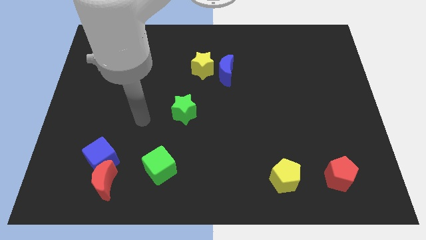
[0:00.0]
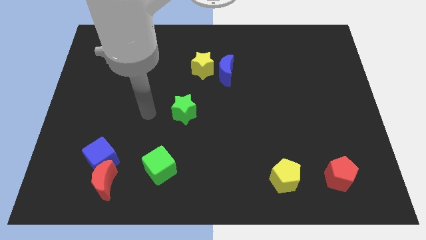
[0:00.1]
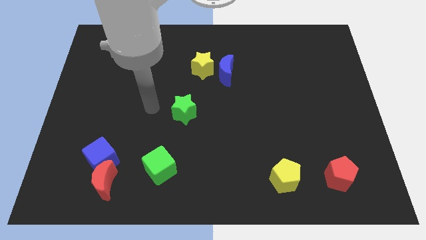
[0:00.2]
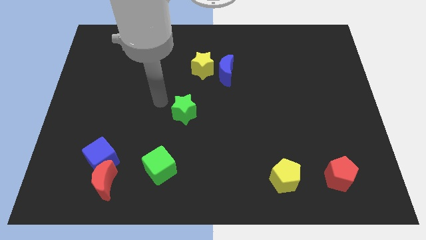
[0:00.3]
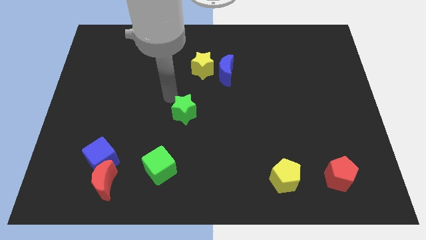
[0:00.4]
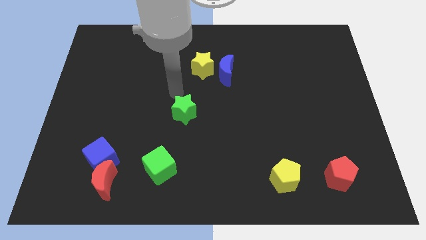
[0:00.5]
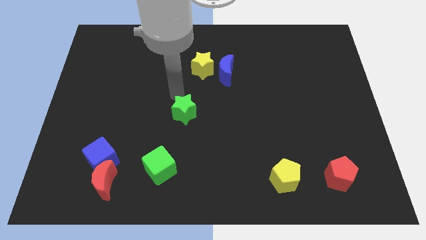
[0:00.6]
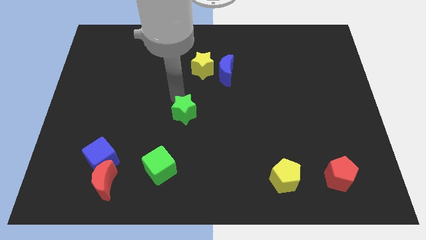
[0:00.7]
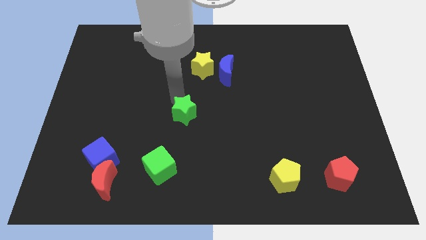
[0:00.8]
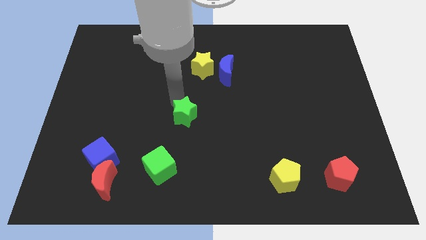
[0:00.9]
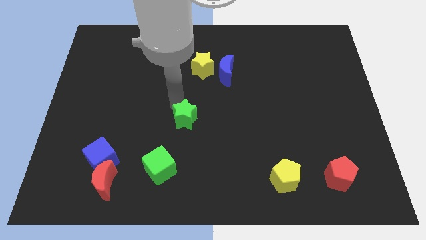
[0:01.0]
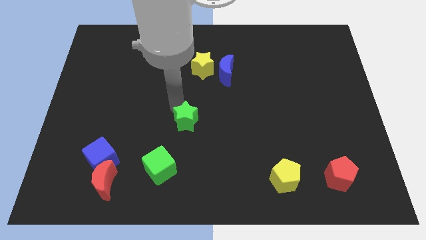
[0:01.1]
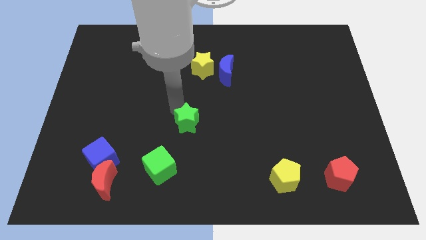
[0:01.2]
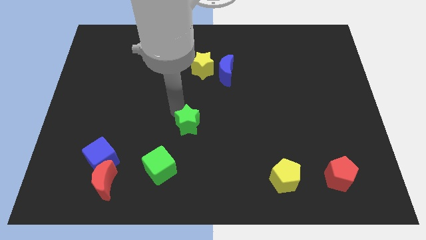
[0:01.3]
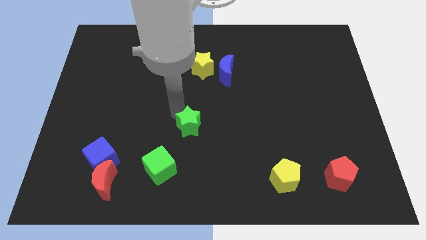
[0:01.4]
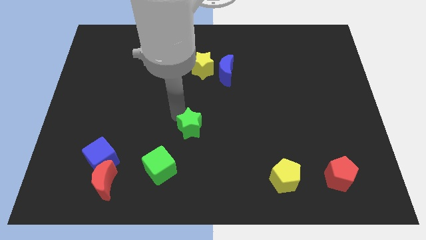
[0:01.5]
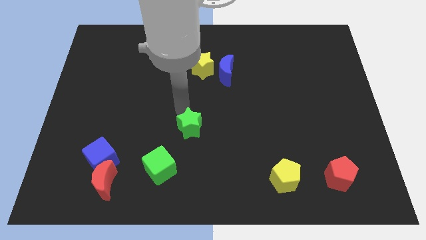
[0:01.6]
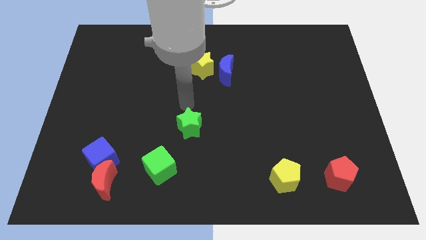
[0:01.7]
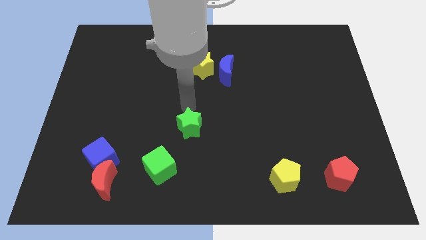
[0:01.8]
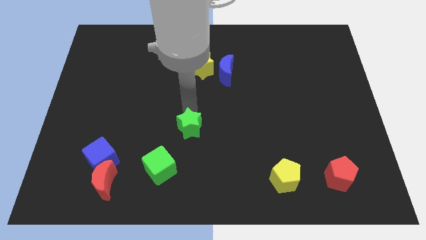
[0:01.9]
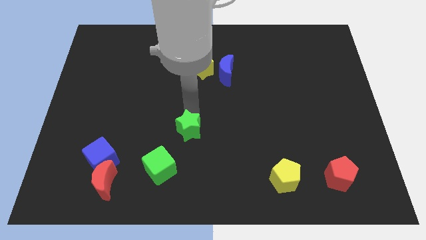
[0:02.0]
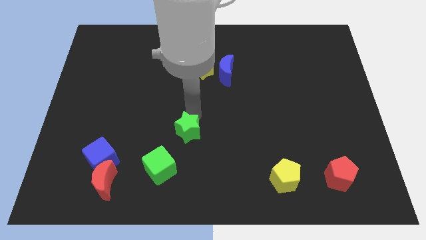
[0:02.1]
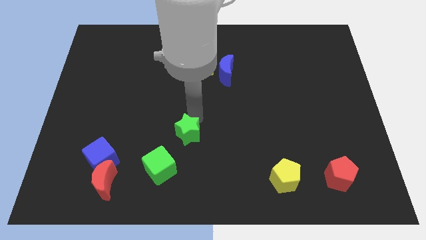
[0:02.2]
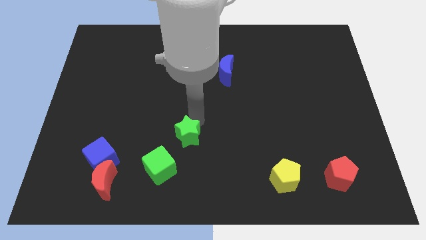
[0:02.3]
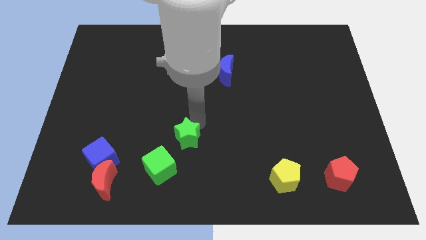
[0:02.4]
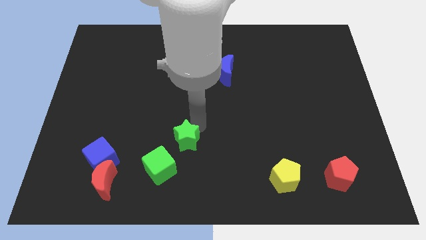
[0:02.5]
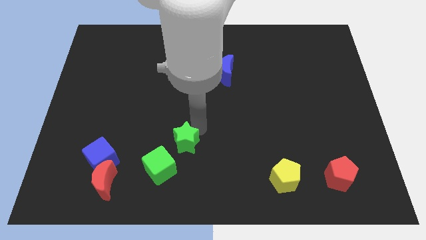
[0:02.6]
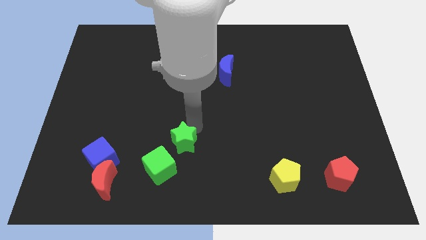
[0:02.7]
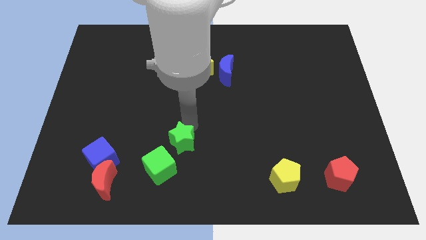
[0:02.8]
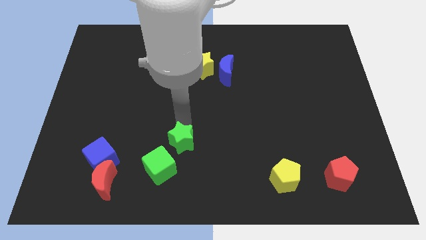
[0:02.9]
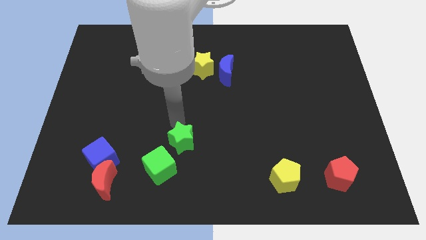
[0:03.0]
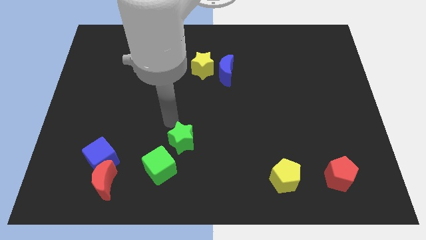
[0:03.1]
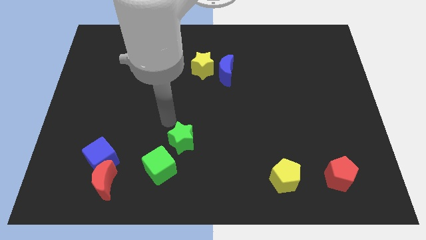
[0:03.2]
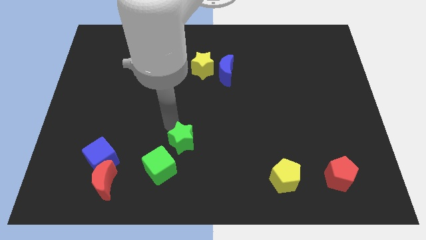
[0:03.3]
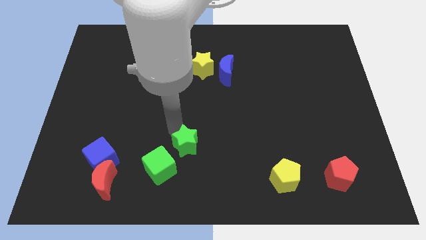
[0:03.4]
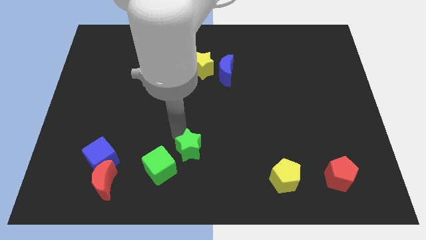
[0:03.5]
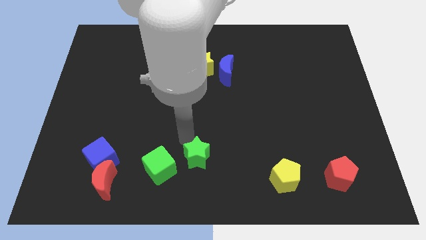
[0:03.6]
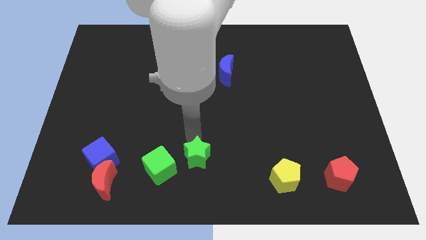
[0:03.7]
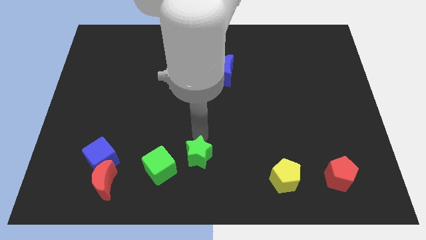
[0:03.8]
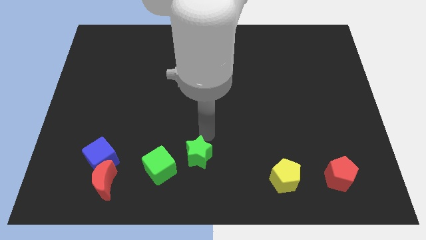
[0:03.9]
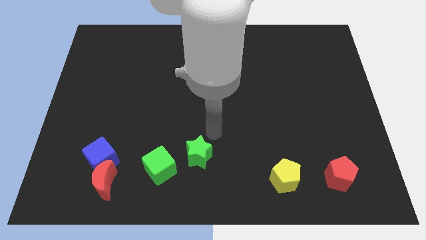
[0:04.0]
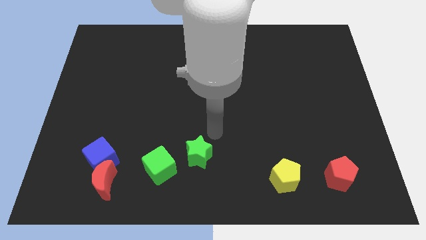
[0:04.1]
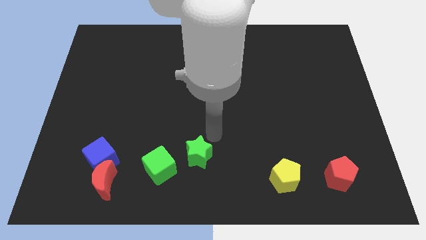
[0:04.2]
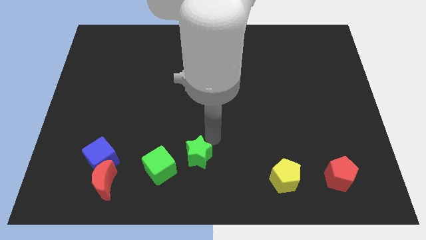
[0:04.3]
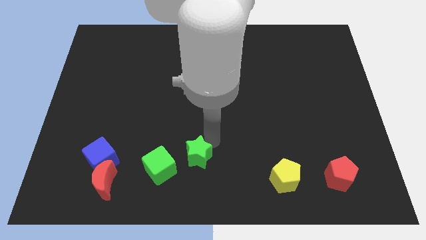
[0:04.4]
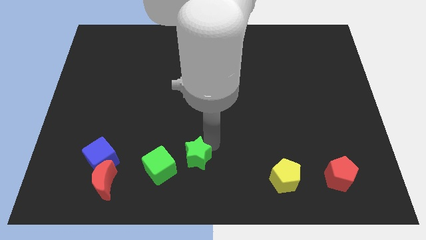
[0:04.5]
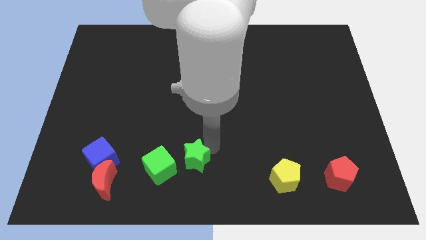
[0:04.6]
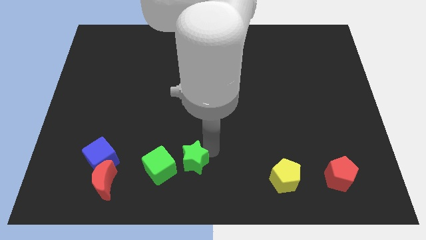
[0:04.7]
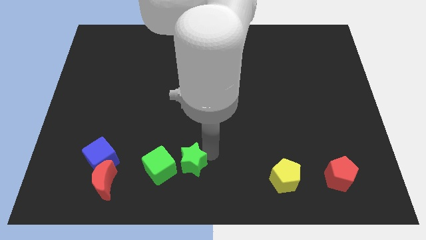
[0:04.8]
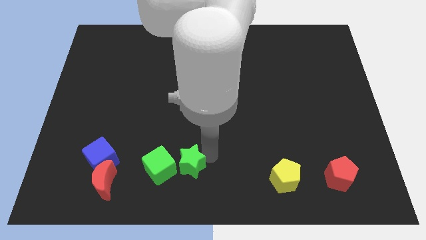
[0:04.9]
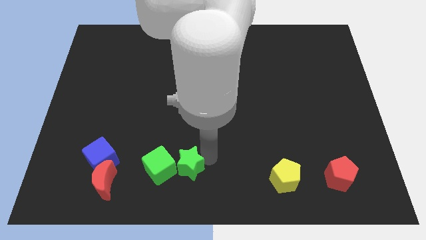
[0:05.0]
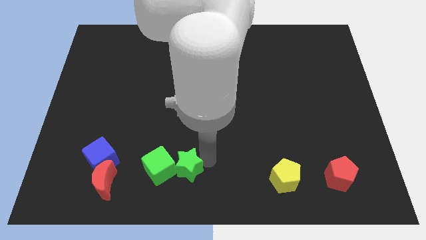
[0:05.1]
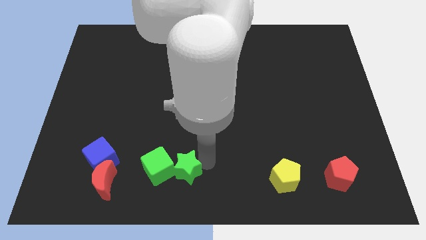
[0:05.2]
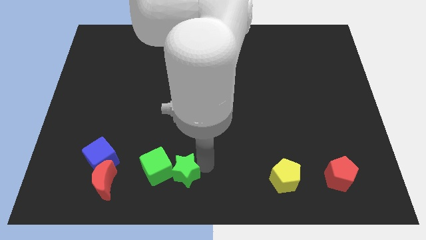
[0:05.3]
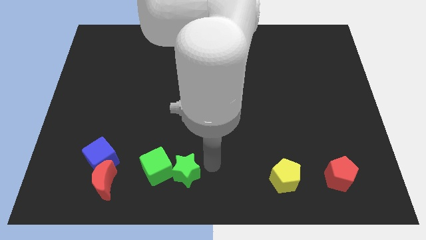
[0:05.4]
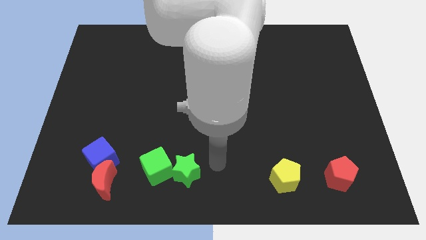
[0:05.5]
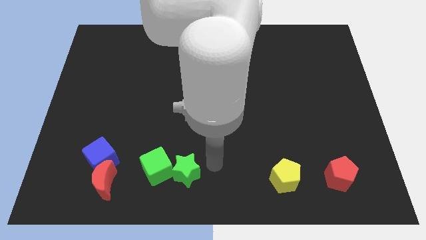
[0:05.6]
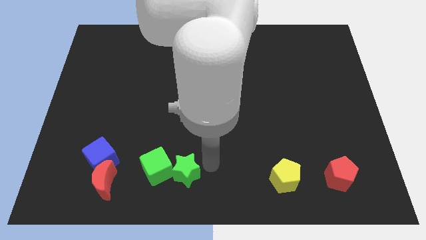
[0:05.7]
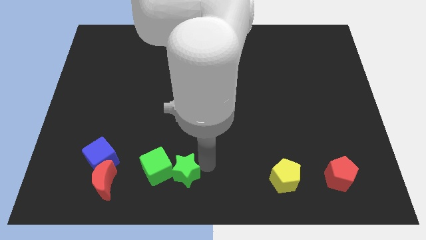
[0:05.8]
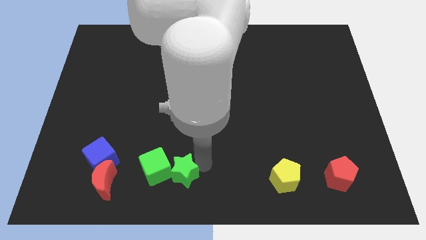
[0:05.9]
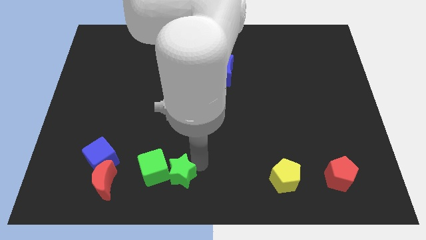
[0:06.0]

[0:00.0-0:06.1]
move the green star right of the red moon

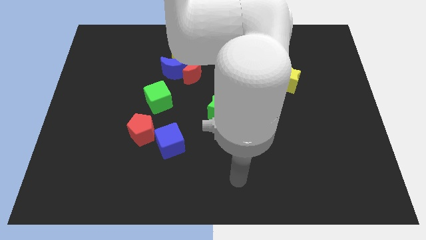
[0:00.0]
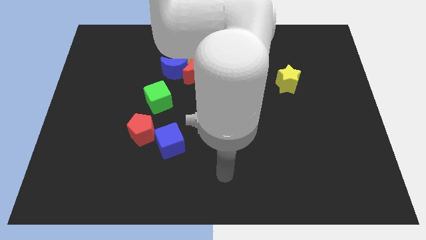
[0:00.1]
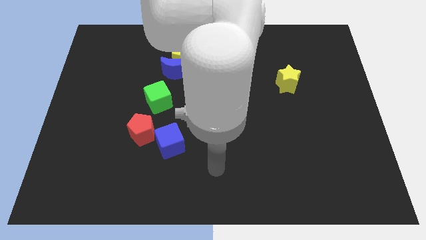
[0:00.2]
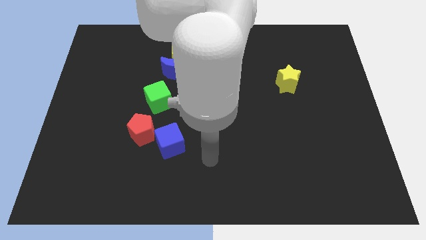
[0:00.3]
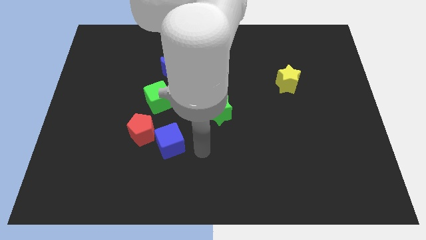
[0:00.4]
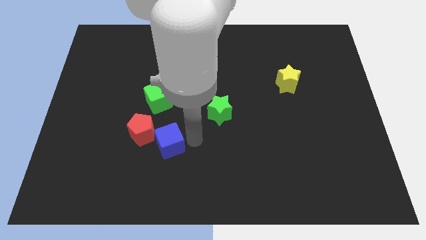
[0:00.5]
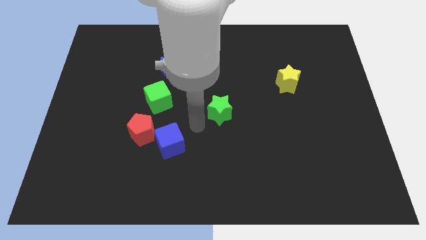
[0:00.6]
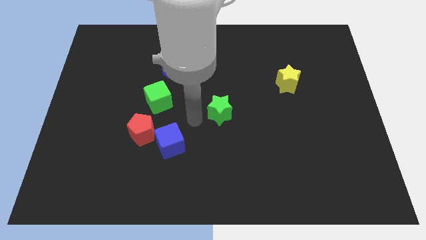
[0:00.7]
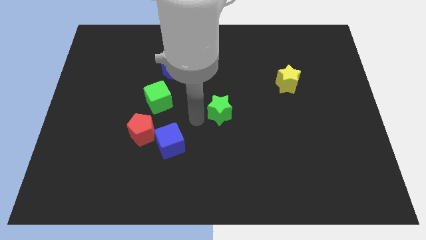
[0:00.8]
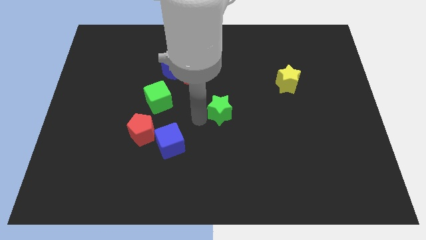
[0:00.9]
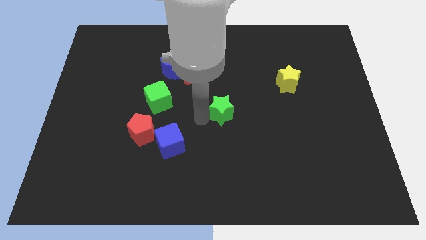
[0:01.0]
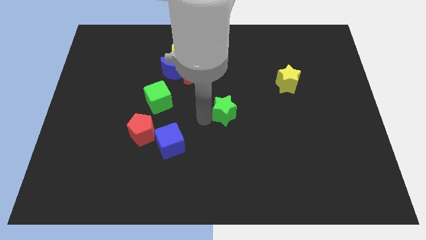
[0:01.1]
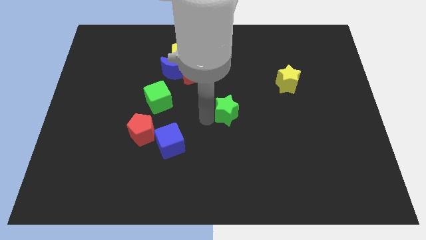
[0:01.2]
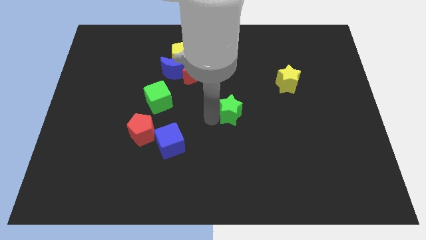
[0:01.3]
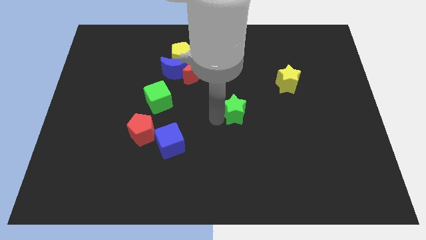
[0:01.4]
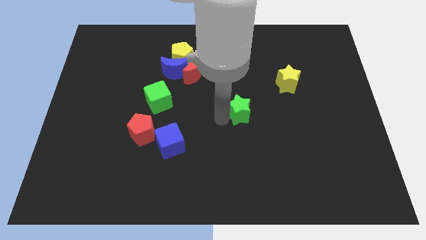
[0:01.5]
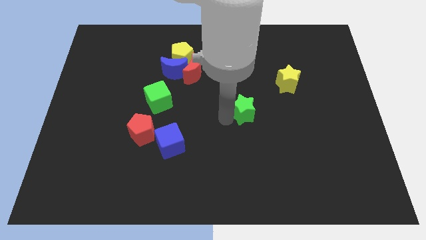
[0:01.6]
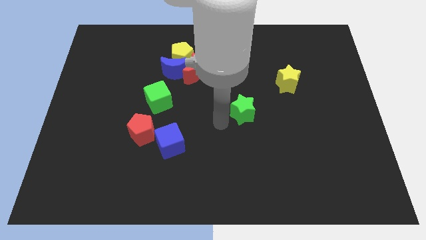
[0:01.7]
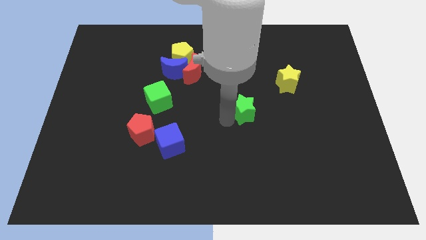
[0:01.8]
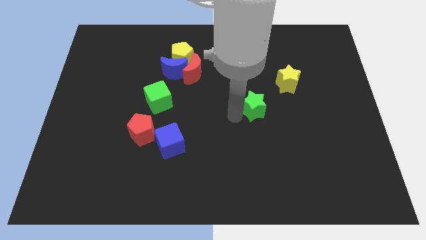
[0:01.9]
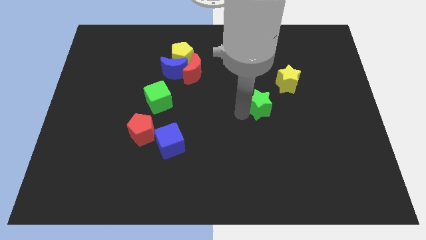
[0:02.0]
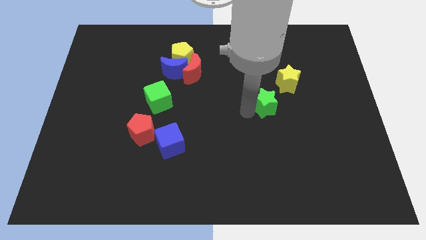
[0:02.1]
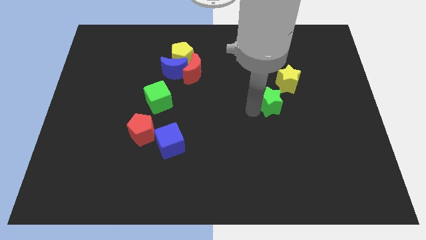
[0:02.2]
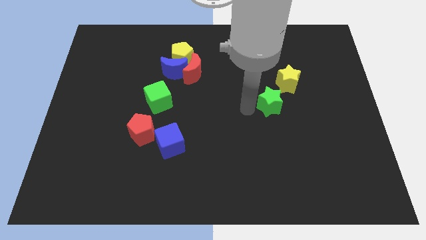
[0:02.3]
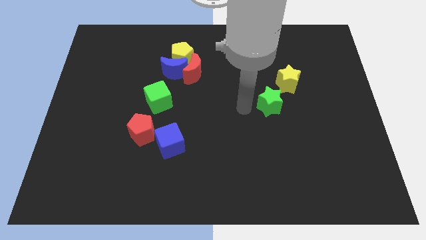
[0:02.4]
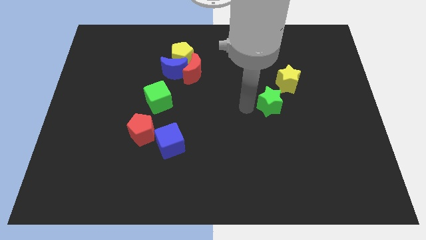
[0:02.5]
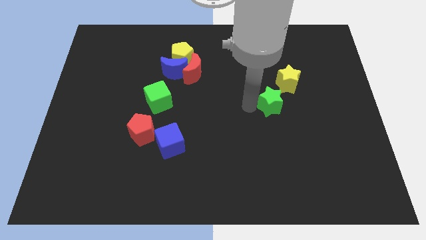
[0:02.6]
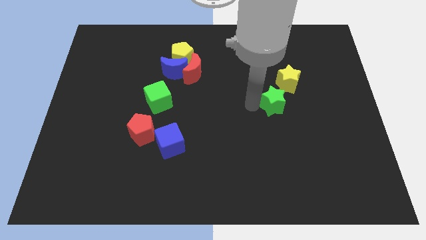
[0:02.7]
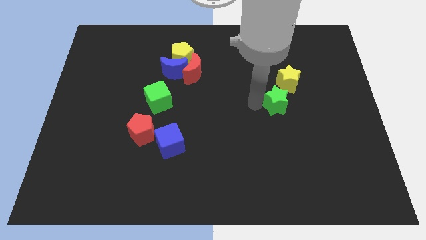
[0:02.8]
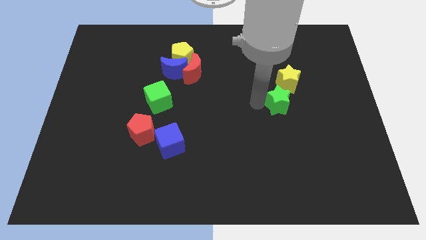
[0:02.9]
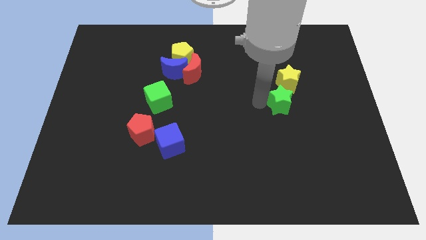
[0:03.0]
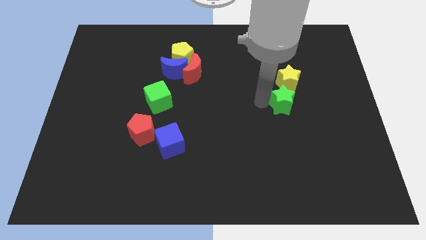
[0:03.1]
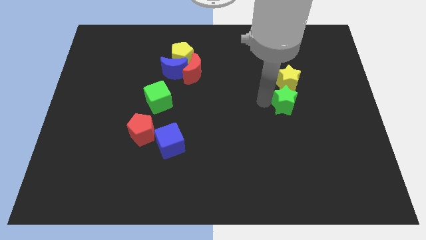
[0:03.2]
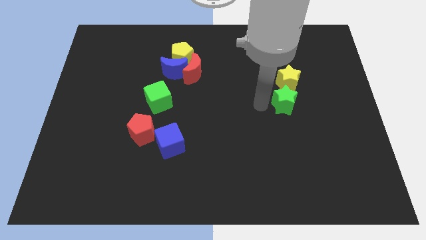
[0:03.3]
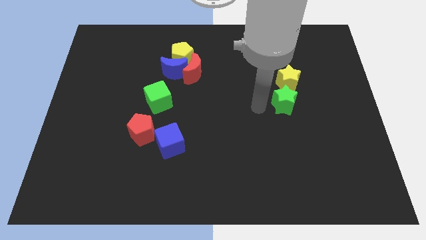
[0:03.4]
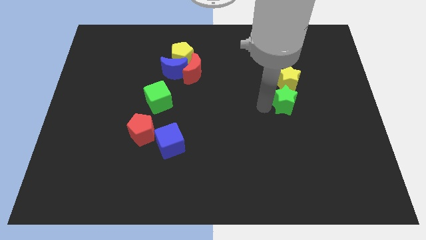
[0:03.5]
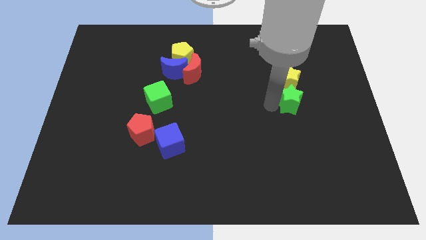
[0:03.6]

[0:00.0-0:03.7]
slide the green star to the bottom right side of the yellow star
